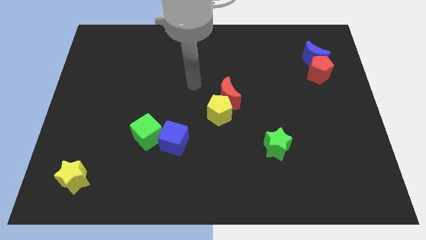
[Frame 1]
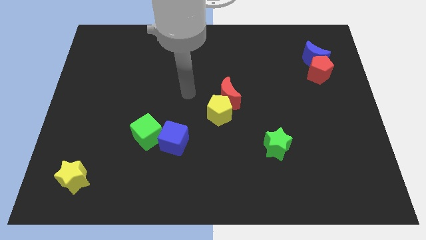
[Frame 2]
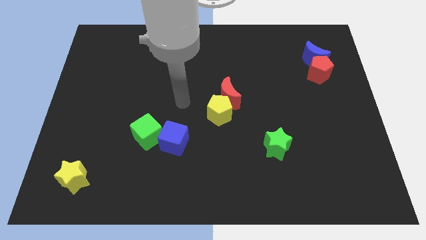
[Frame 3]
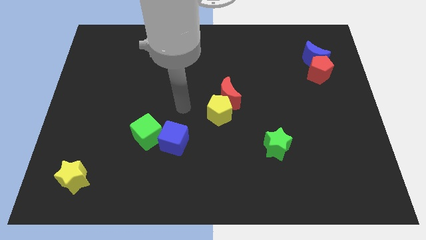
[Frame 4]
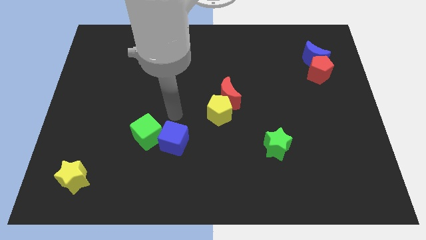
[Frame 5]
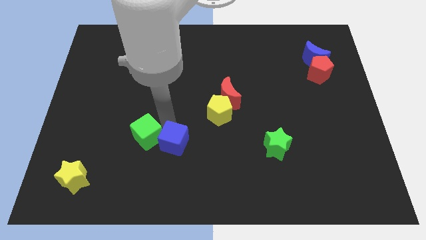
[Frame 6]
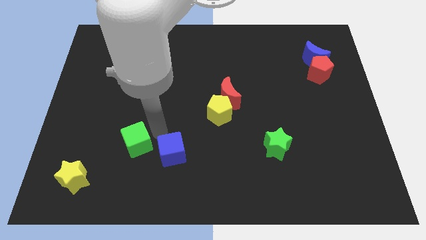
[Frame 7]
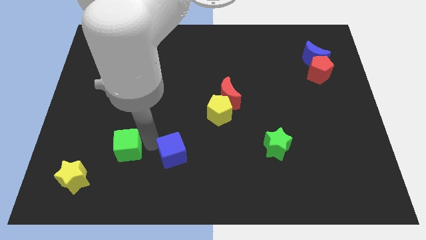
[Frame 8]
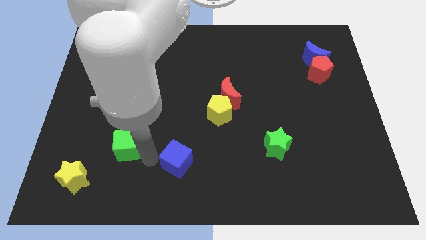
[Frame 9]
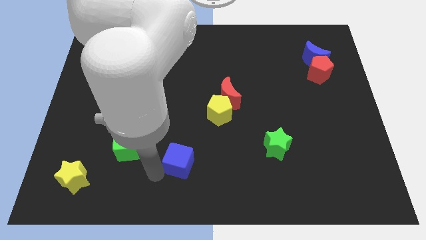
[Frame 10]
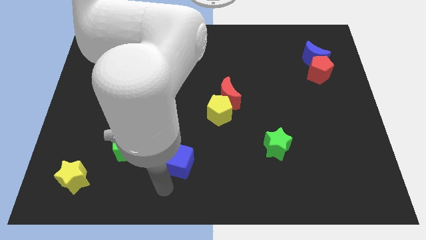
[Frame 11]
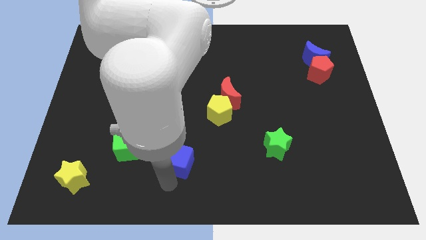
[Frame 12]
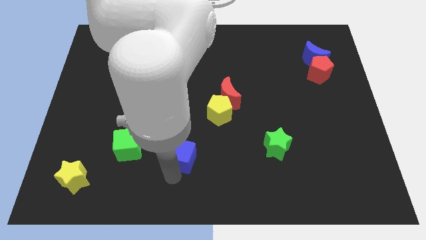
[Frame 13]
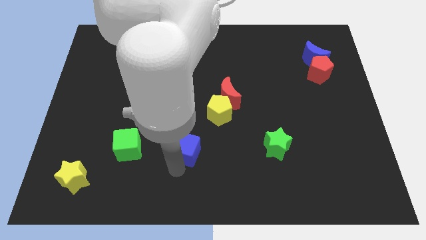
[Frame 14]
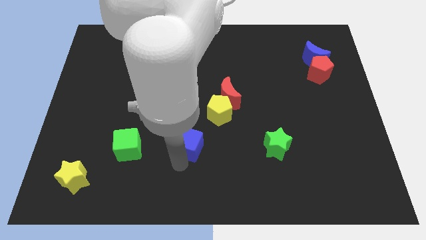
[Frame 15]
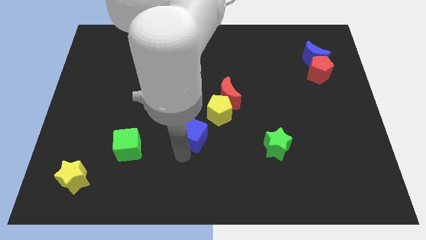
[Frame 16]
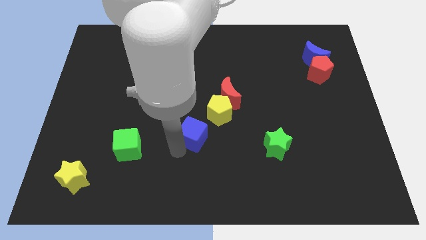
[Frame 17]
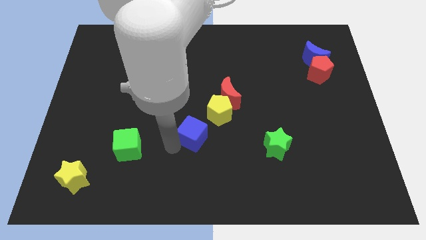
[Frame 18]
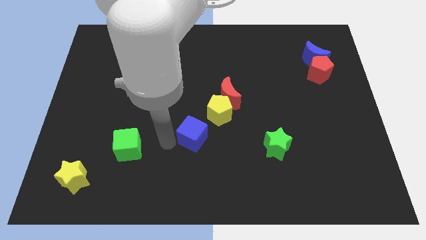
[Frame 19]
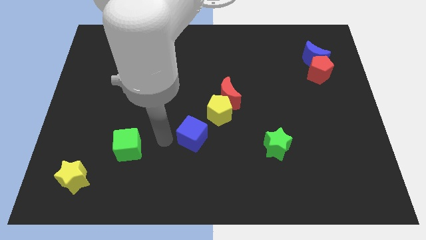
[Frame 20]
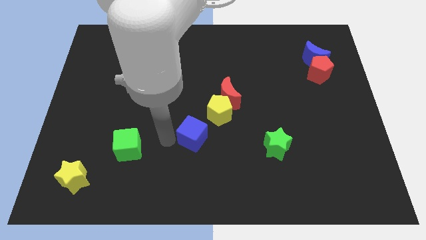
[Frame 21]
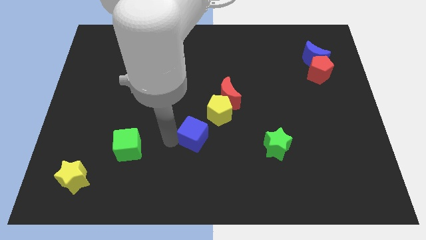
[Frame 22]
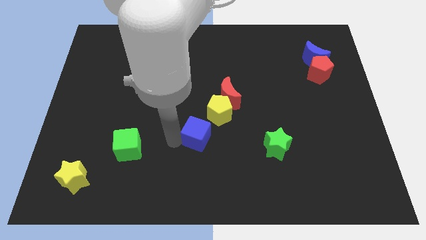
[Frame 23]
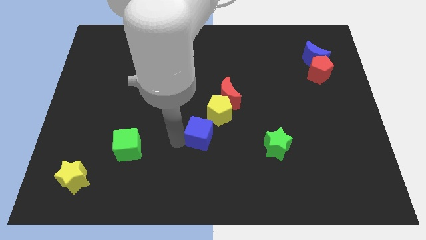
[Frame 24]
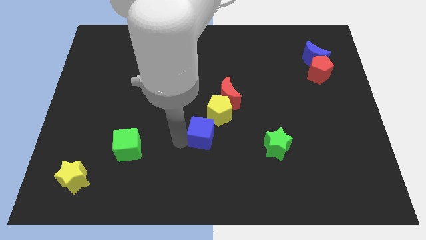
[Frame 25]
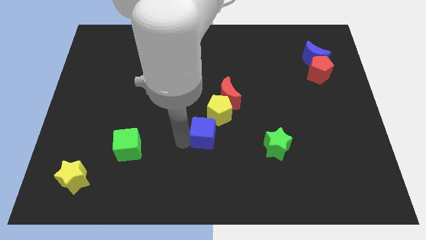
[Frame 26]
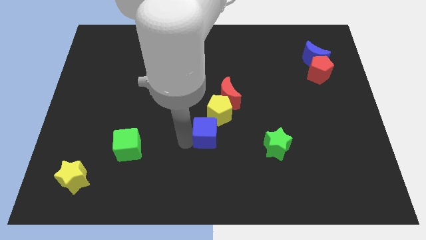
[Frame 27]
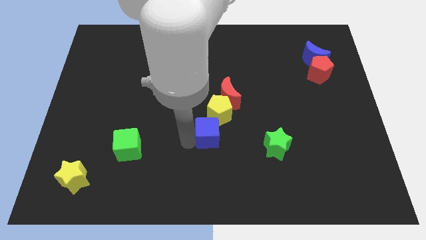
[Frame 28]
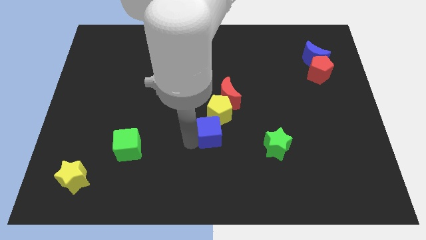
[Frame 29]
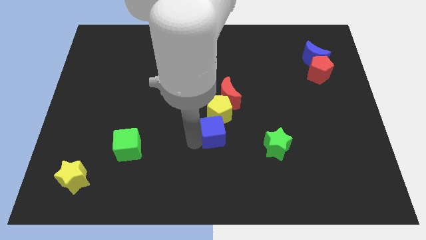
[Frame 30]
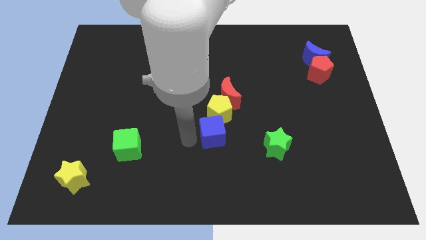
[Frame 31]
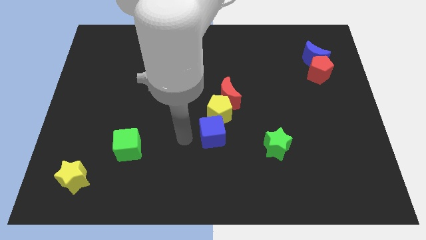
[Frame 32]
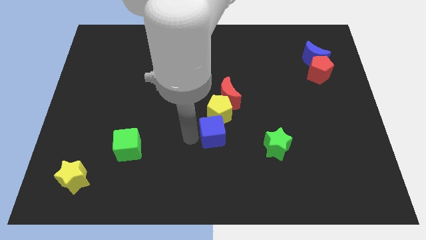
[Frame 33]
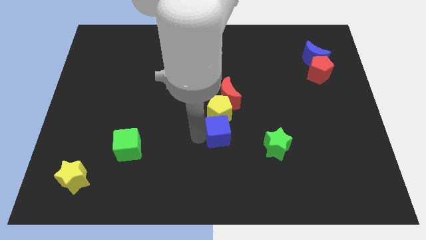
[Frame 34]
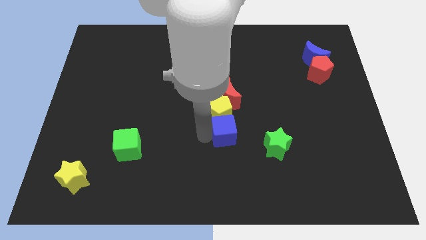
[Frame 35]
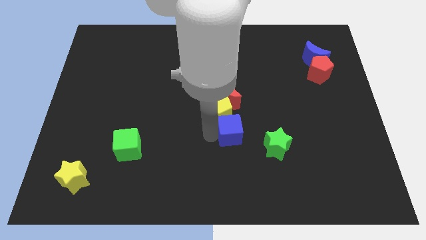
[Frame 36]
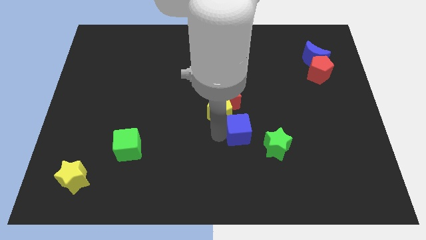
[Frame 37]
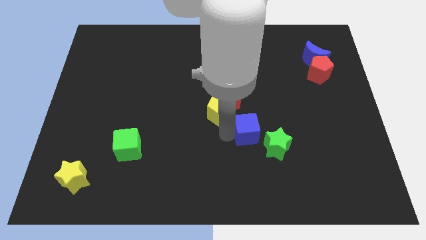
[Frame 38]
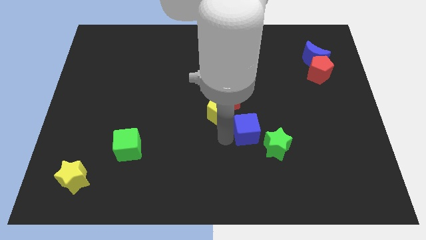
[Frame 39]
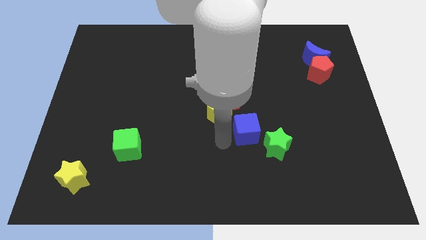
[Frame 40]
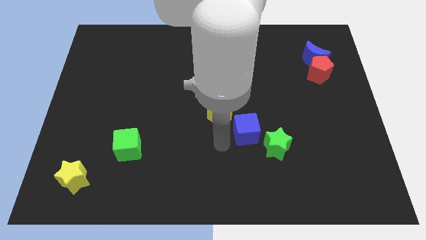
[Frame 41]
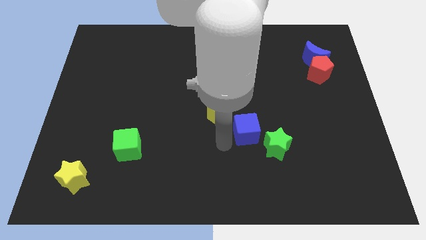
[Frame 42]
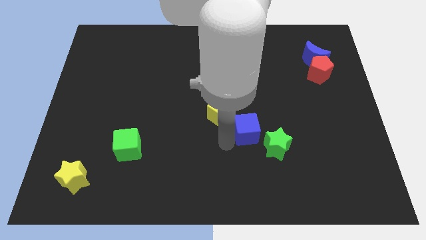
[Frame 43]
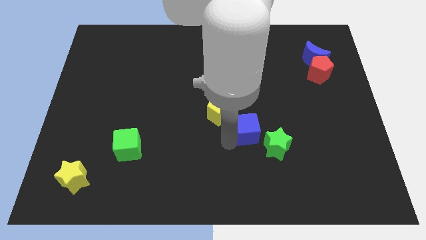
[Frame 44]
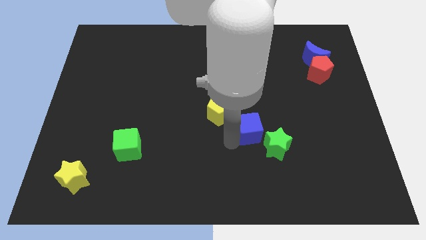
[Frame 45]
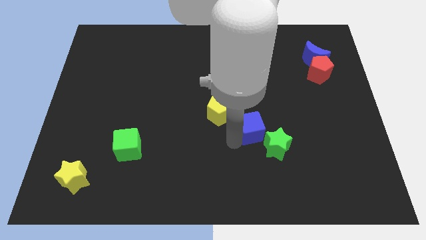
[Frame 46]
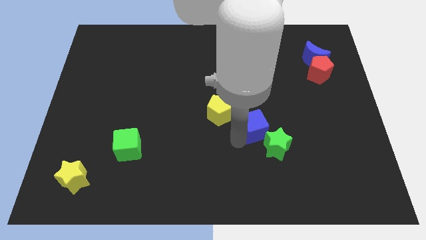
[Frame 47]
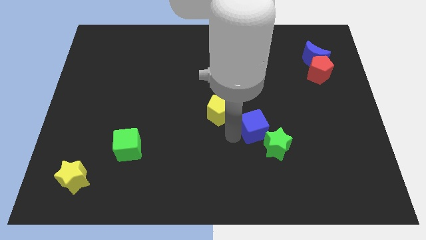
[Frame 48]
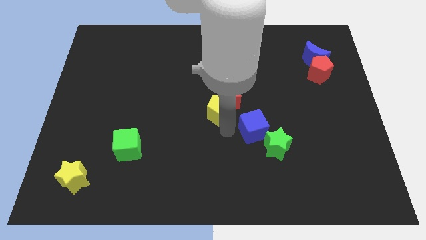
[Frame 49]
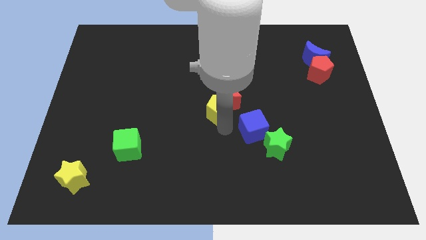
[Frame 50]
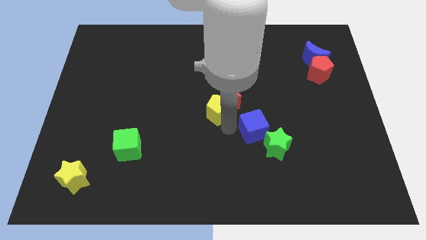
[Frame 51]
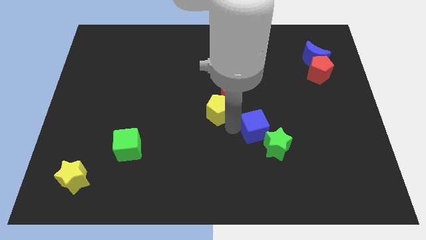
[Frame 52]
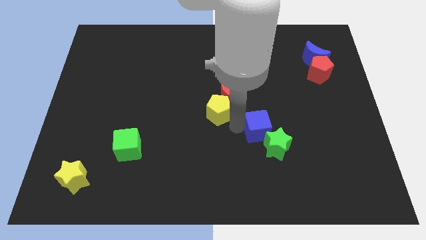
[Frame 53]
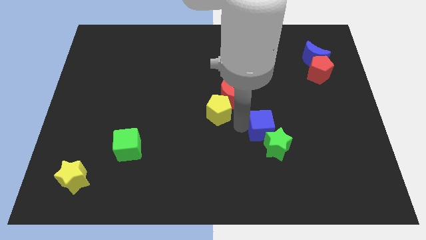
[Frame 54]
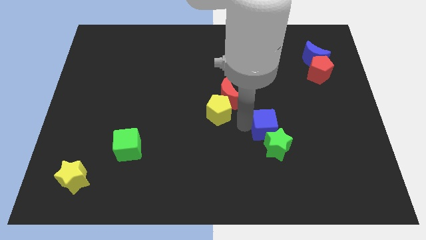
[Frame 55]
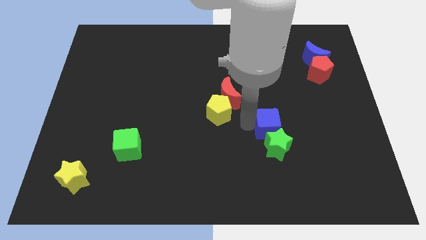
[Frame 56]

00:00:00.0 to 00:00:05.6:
slide the blue cube to the right

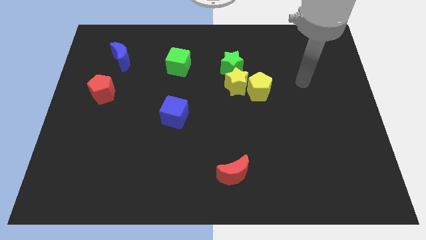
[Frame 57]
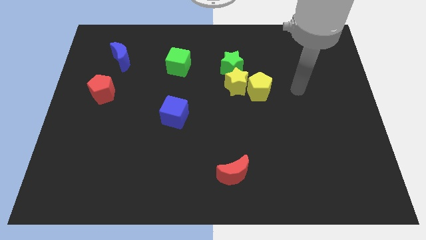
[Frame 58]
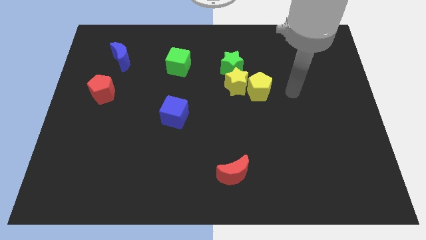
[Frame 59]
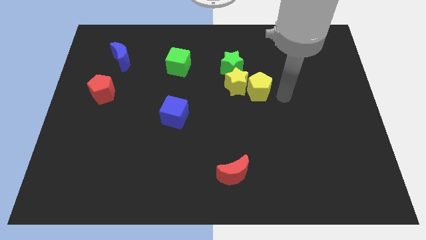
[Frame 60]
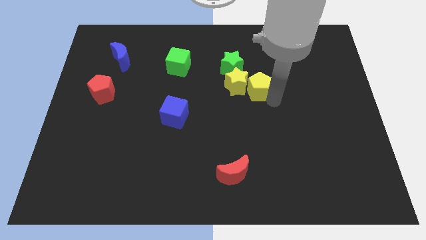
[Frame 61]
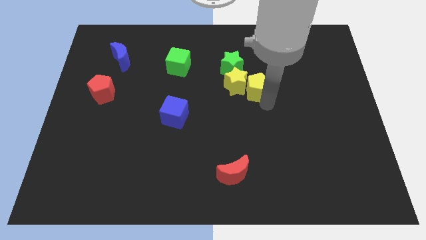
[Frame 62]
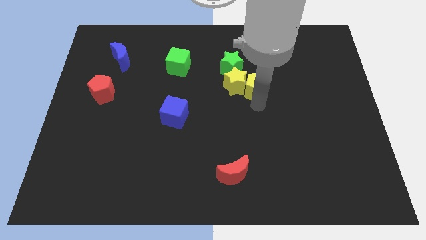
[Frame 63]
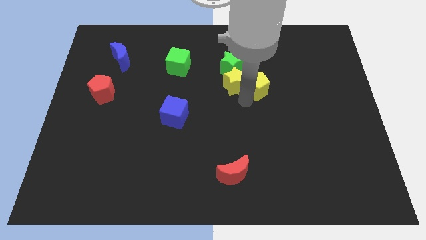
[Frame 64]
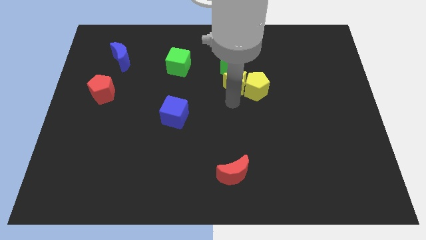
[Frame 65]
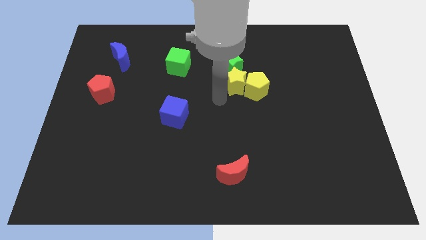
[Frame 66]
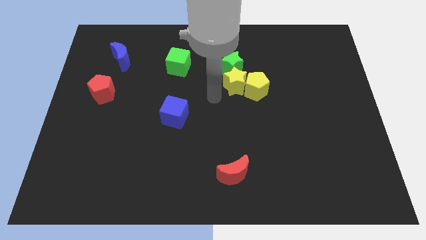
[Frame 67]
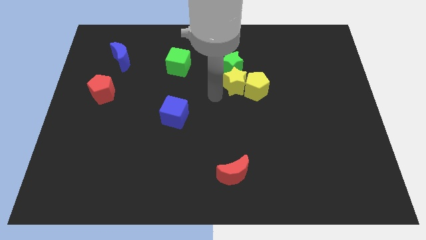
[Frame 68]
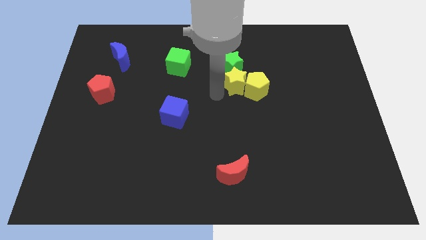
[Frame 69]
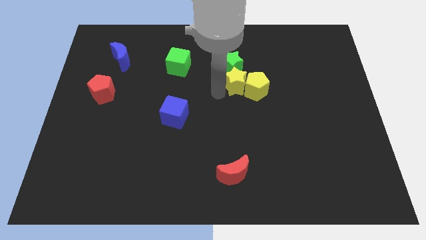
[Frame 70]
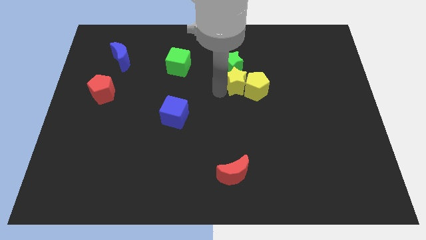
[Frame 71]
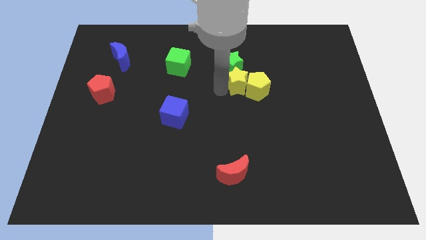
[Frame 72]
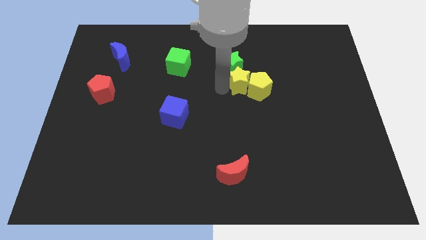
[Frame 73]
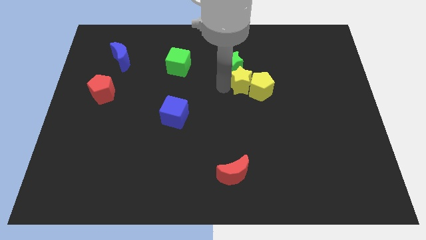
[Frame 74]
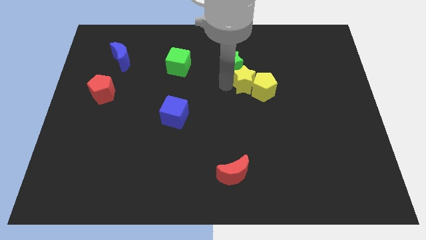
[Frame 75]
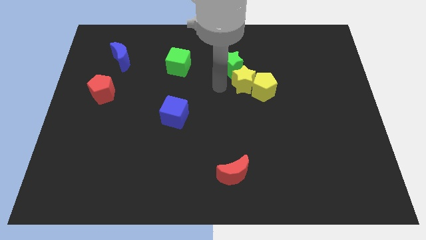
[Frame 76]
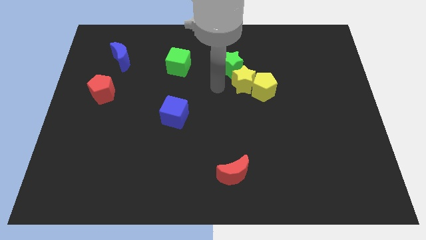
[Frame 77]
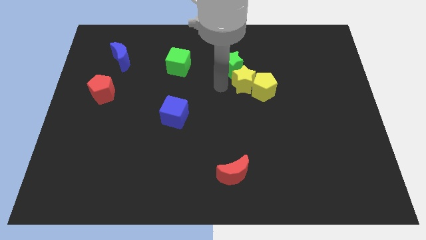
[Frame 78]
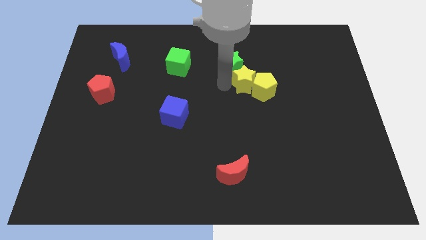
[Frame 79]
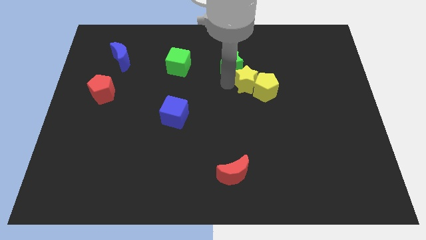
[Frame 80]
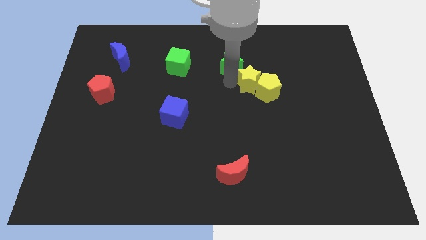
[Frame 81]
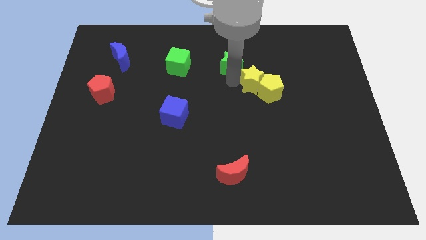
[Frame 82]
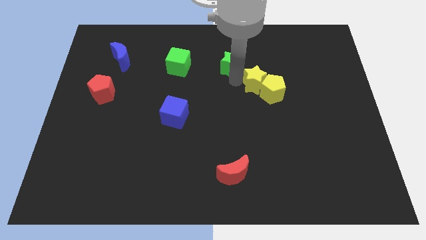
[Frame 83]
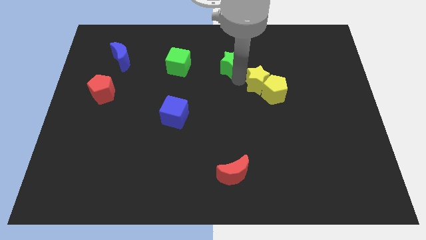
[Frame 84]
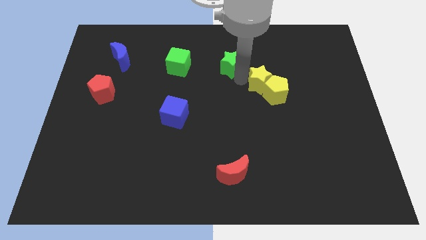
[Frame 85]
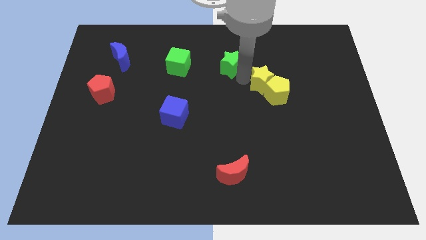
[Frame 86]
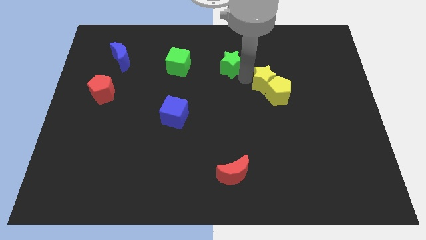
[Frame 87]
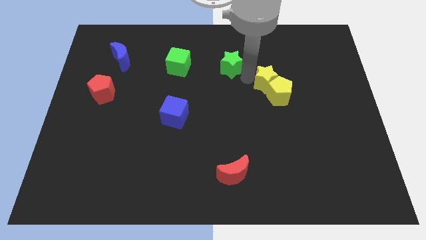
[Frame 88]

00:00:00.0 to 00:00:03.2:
slide the yellow star to the right a bit
